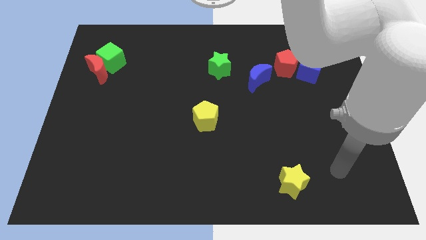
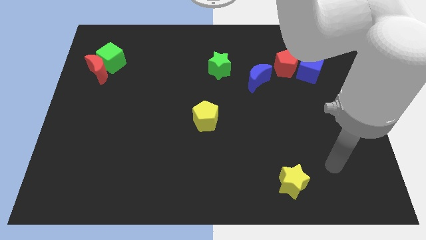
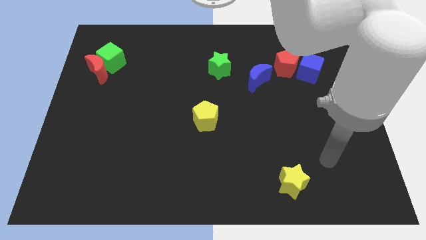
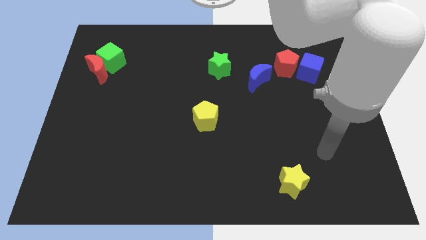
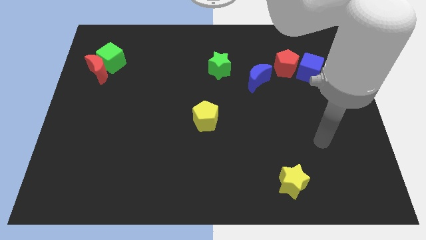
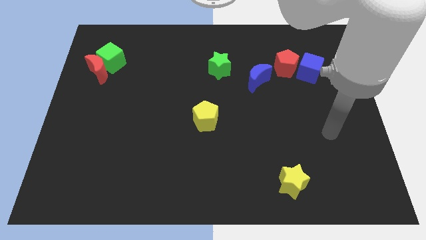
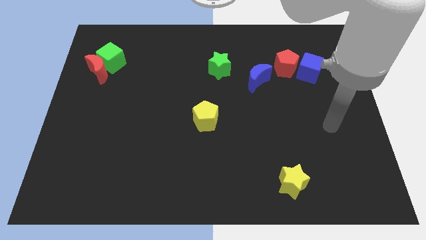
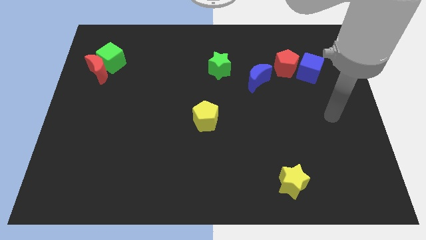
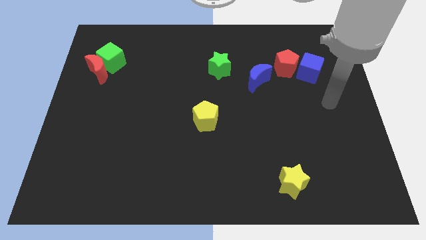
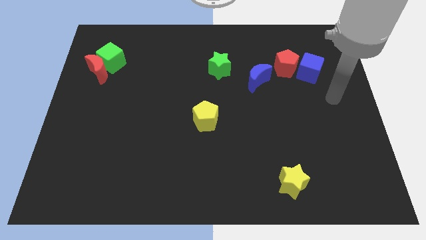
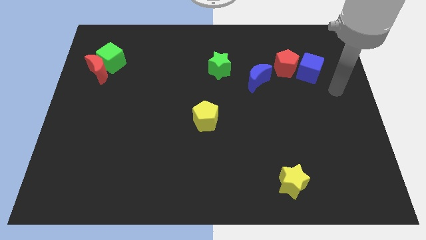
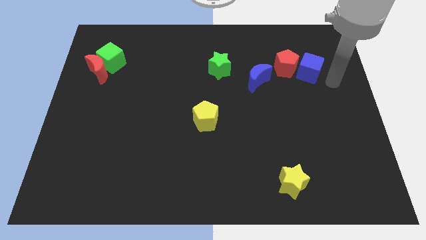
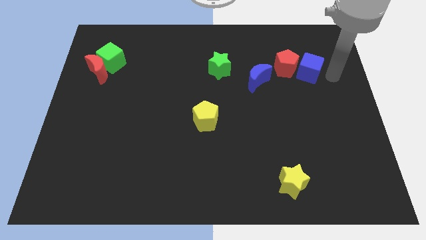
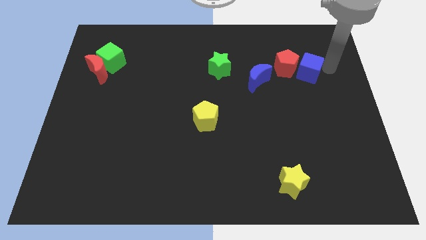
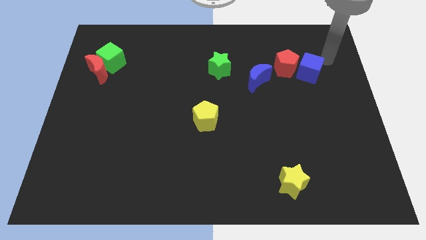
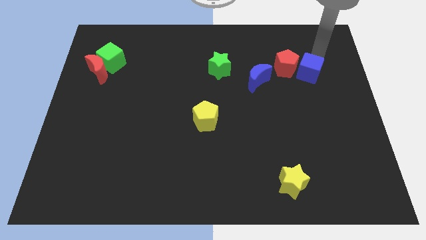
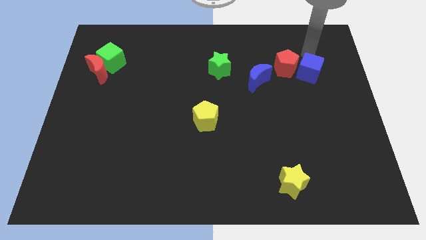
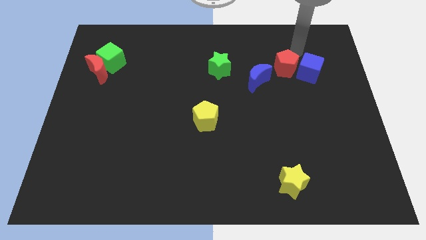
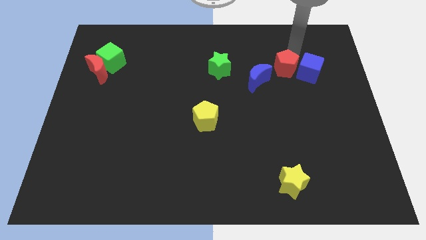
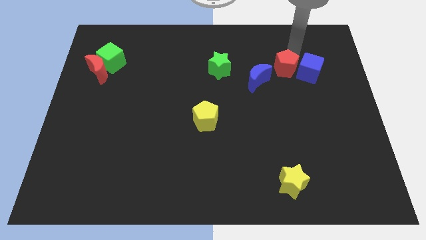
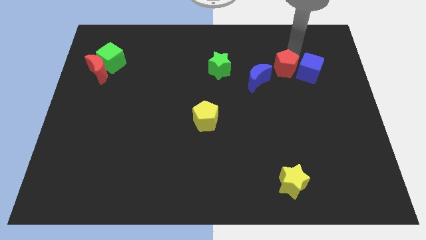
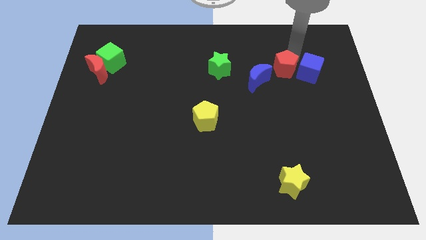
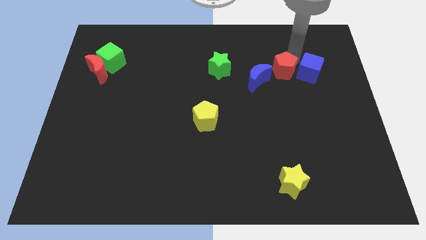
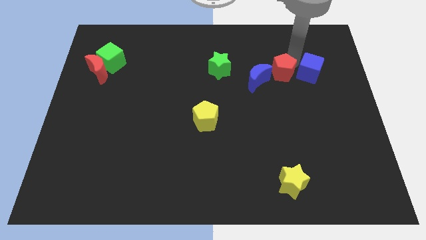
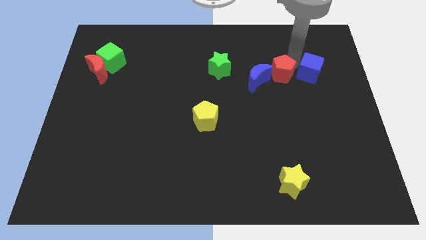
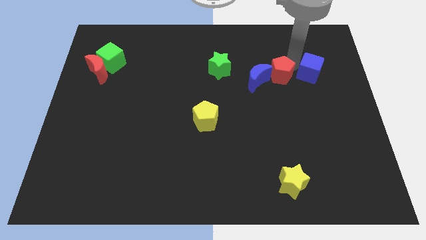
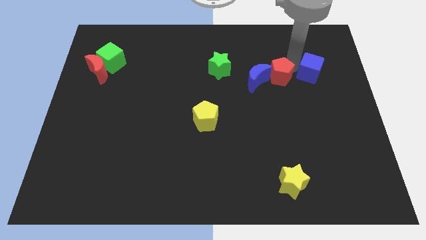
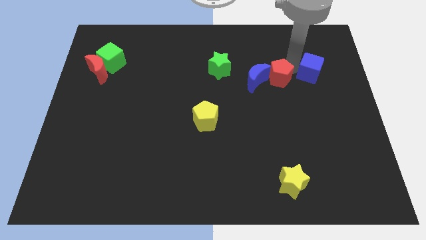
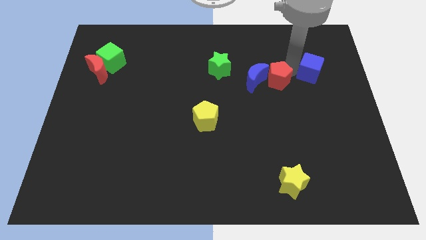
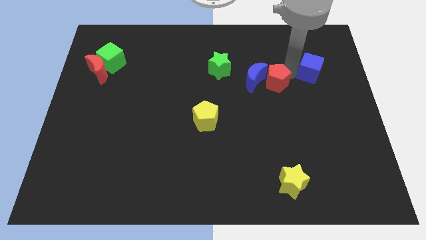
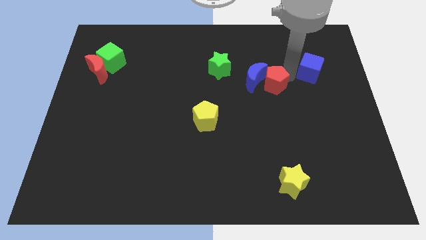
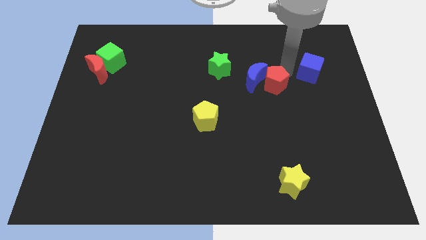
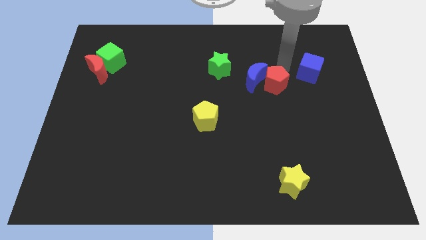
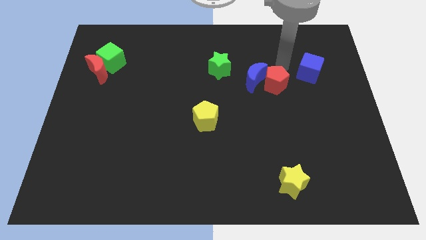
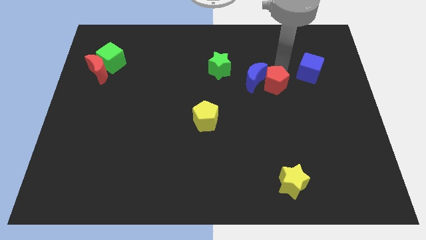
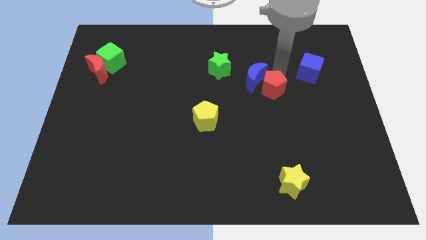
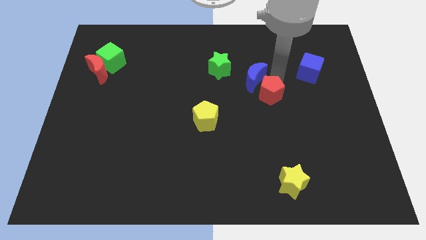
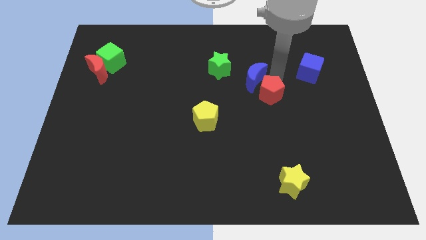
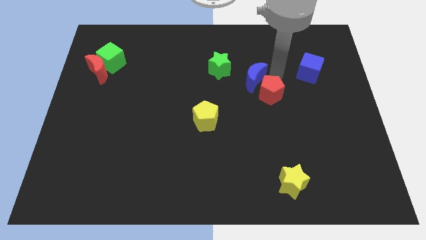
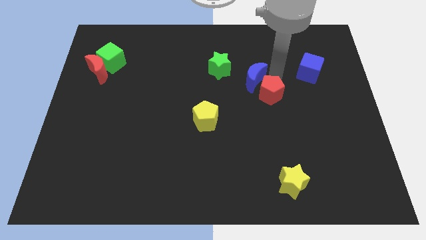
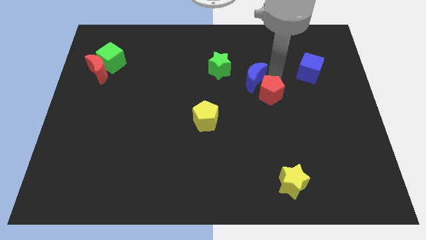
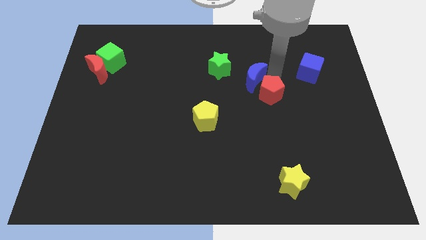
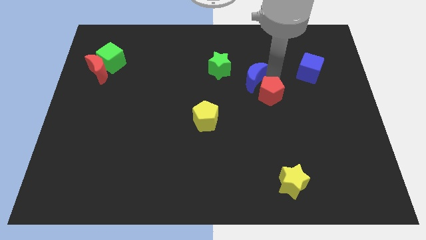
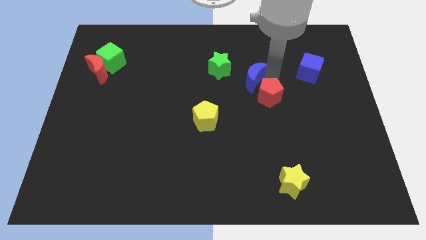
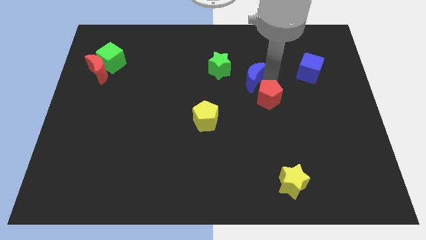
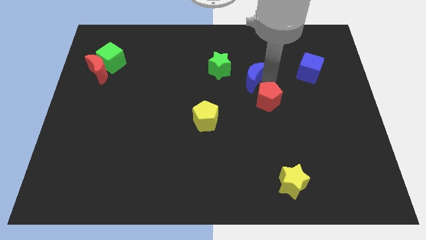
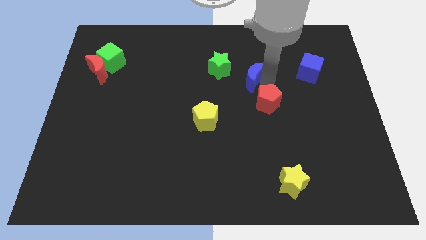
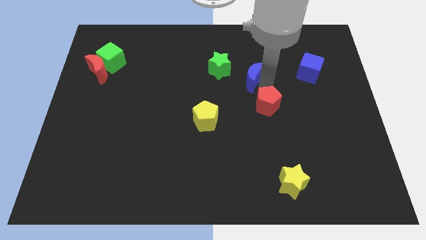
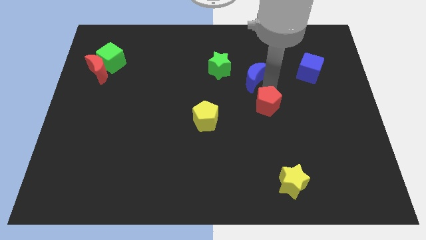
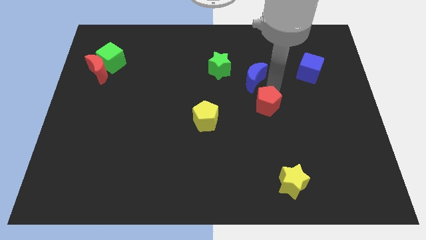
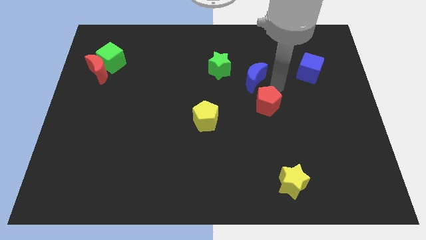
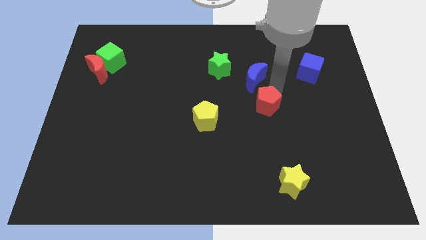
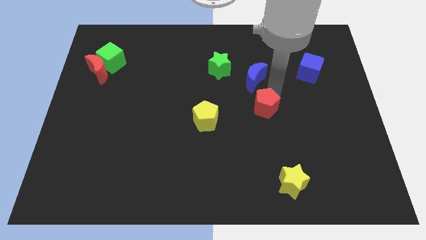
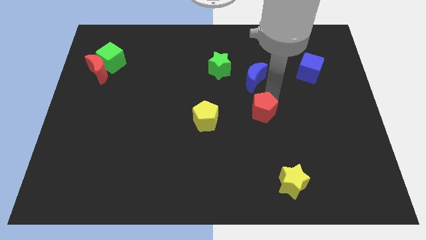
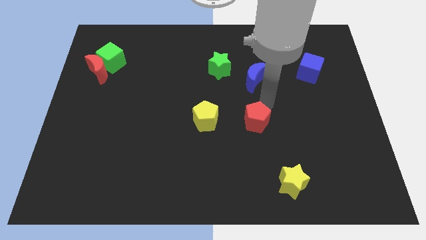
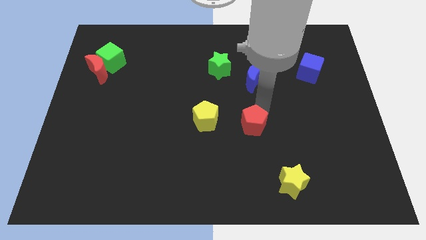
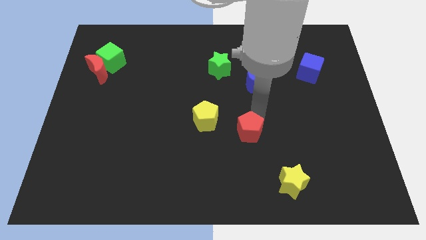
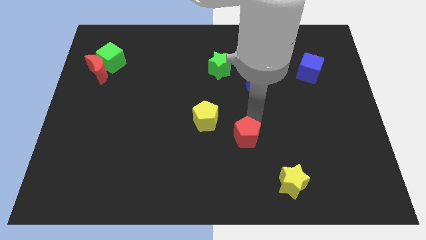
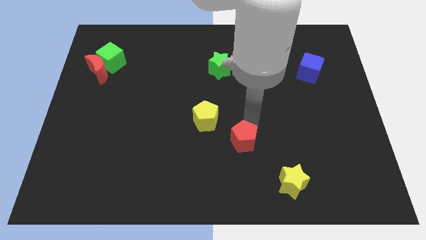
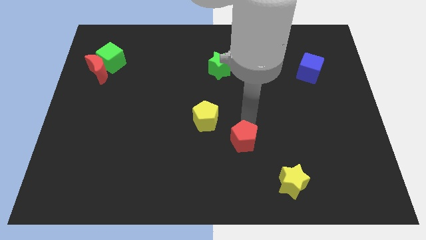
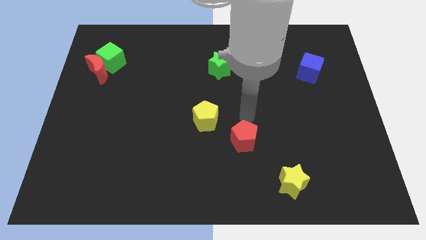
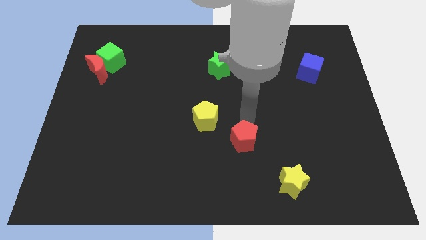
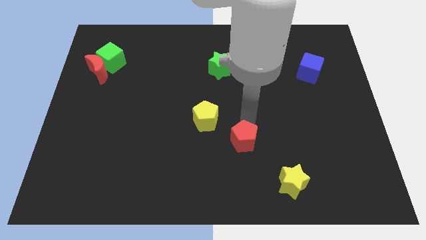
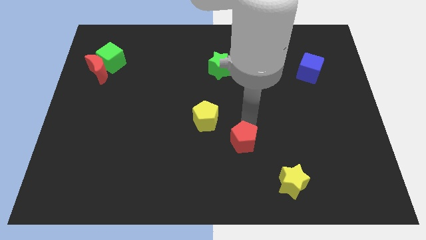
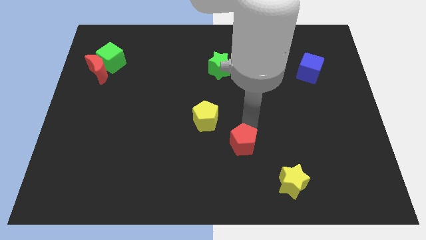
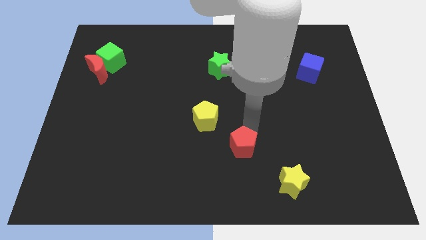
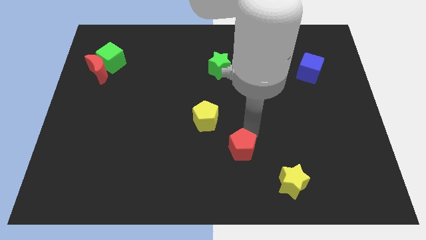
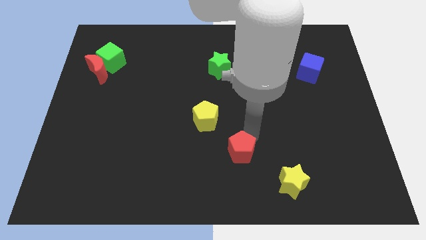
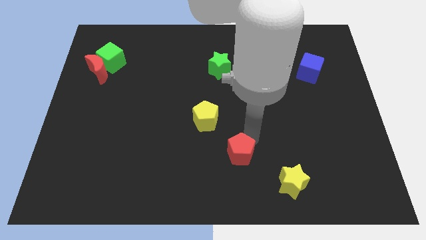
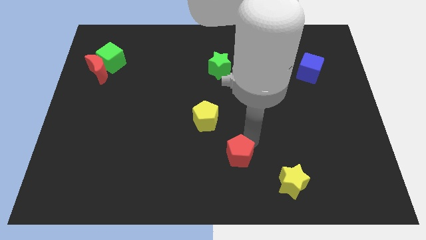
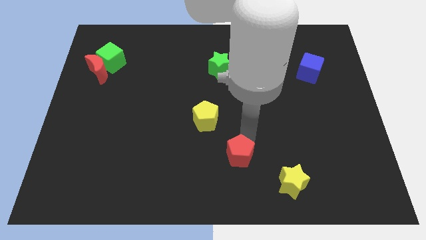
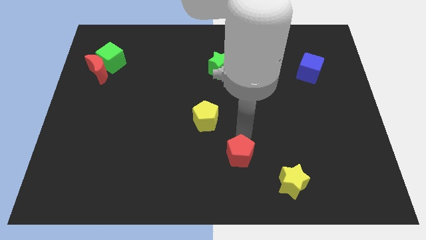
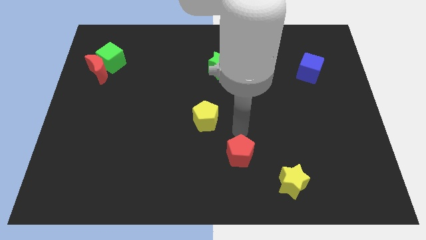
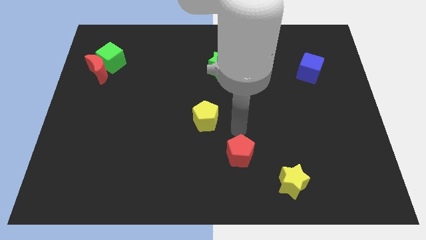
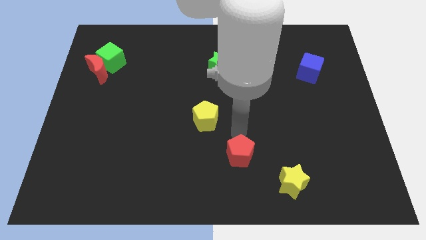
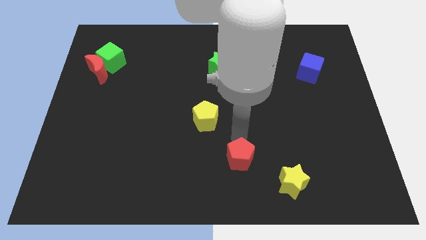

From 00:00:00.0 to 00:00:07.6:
slide the red pentagon to the bottom side
